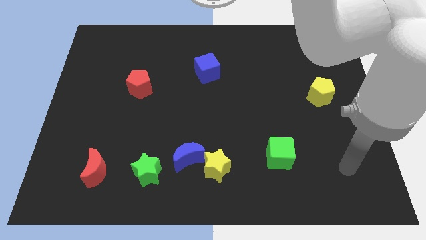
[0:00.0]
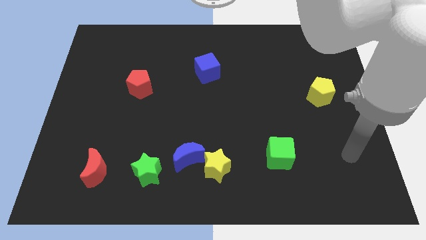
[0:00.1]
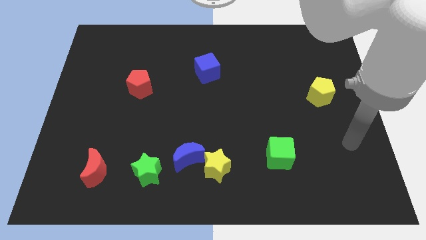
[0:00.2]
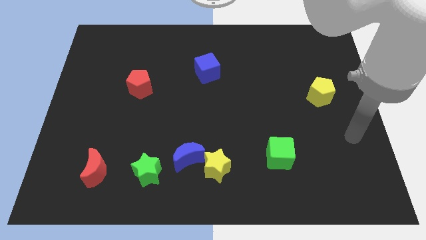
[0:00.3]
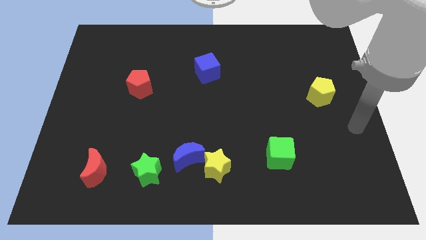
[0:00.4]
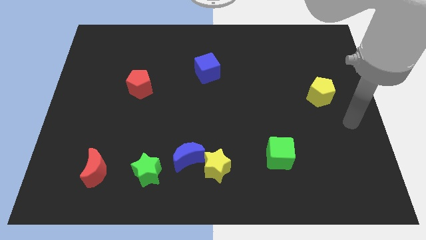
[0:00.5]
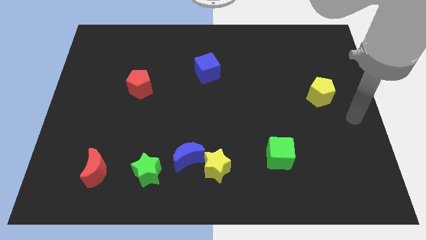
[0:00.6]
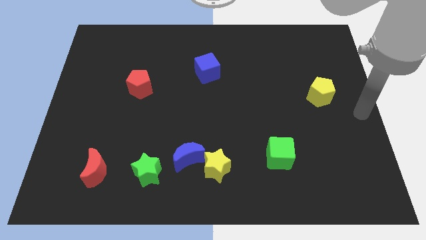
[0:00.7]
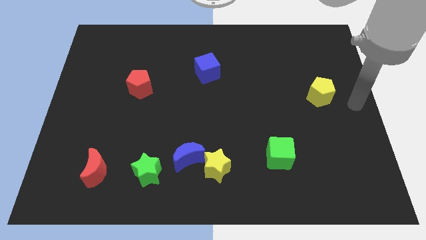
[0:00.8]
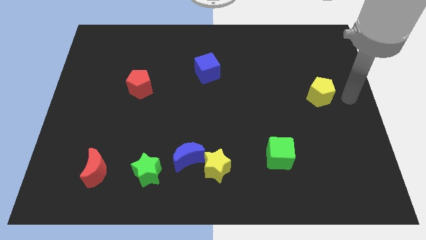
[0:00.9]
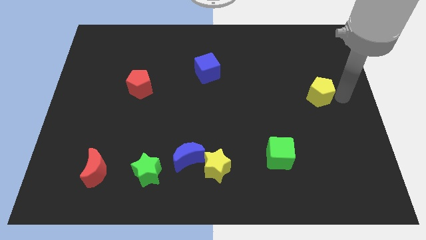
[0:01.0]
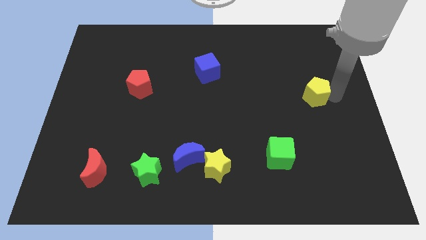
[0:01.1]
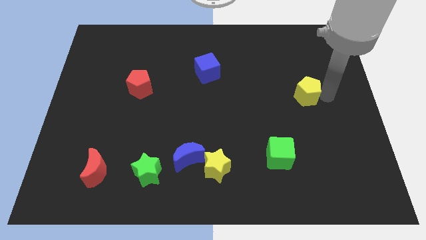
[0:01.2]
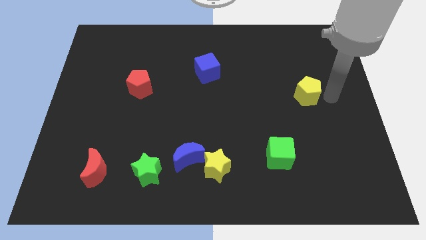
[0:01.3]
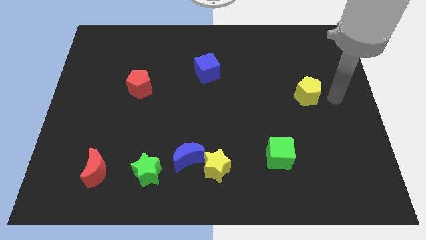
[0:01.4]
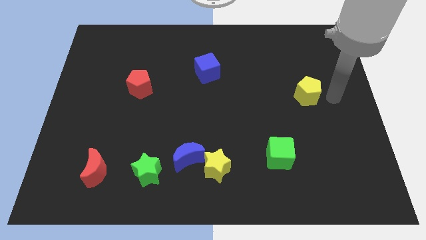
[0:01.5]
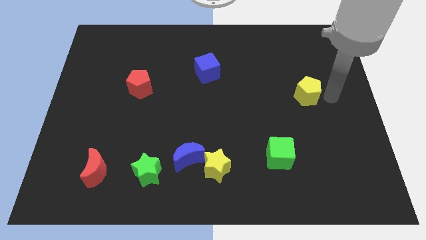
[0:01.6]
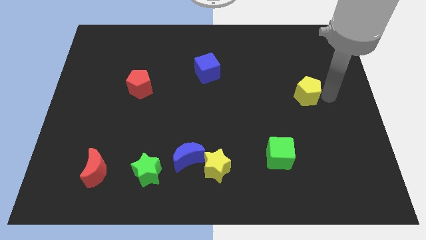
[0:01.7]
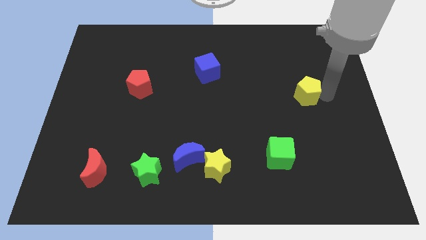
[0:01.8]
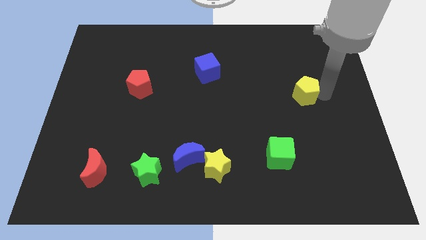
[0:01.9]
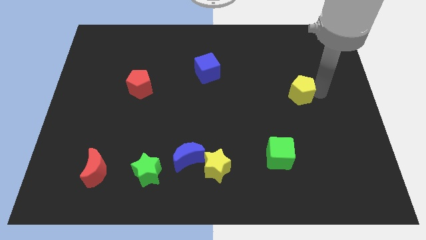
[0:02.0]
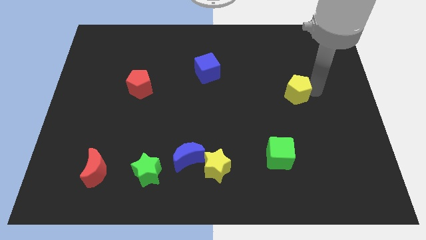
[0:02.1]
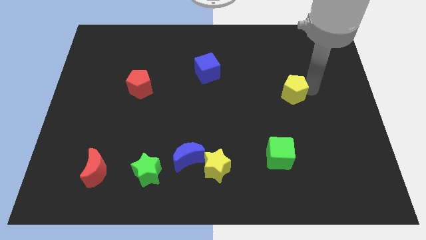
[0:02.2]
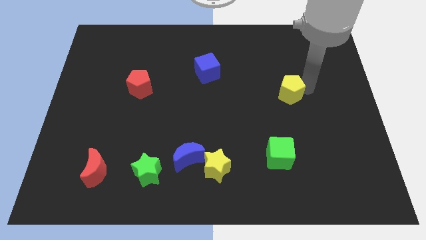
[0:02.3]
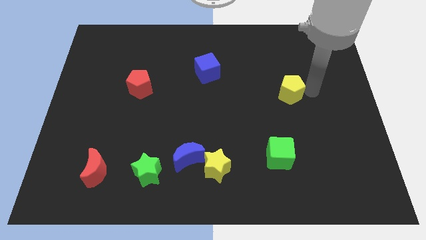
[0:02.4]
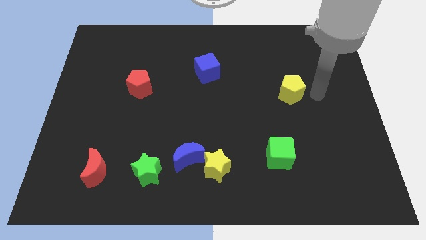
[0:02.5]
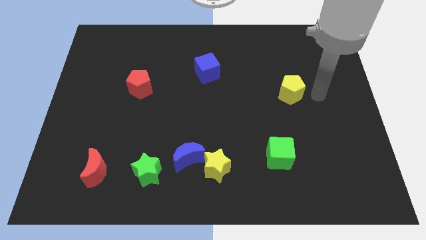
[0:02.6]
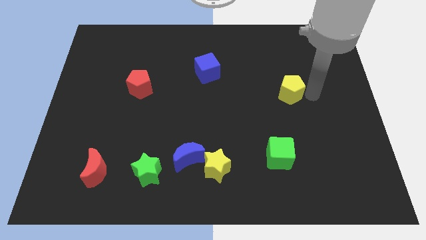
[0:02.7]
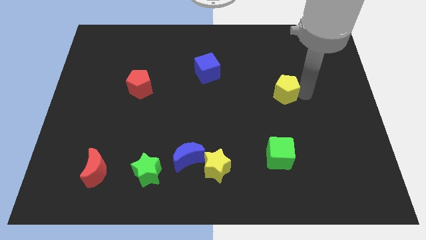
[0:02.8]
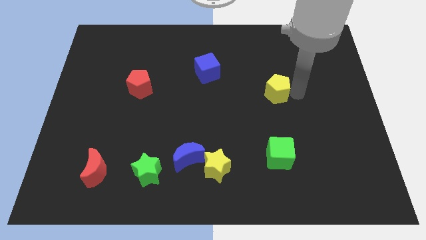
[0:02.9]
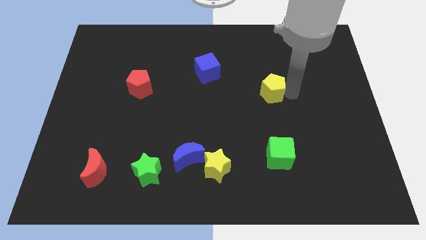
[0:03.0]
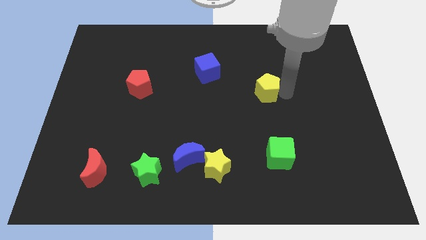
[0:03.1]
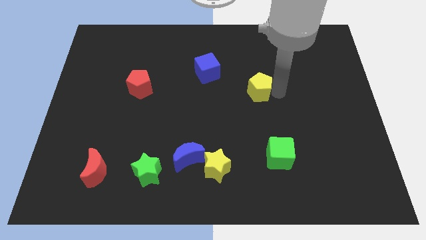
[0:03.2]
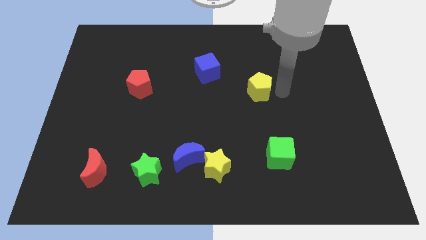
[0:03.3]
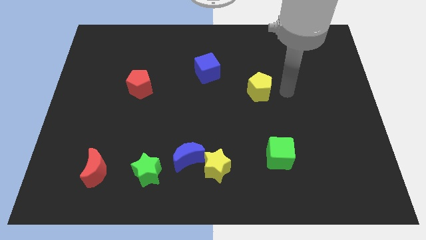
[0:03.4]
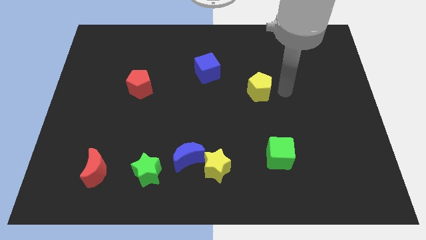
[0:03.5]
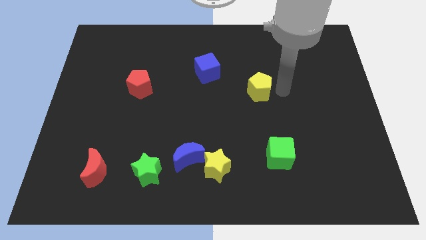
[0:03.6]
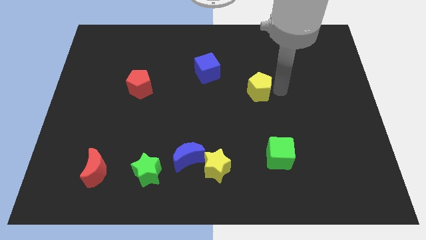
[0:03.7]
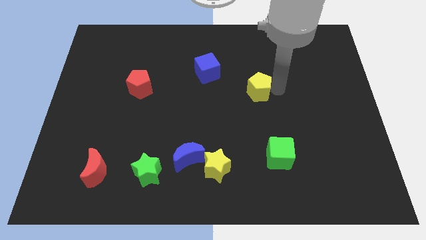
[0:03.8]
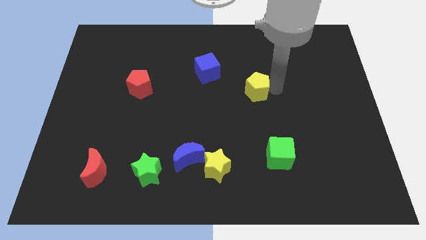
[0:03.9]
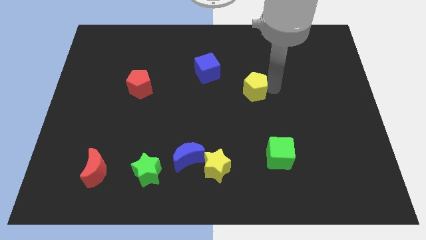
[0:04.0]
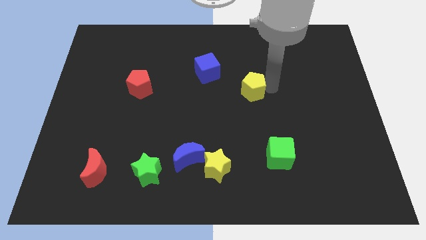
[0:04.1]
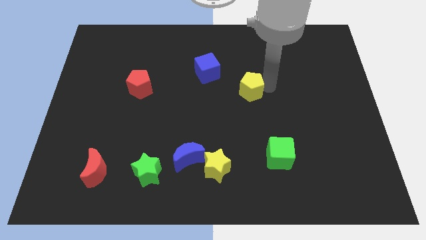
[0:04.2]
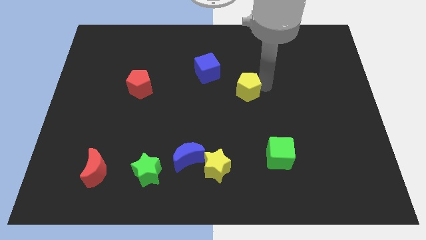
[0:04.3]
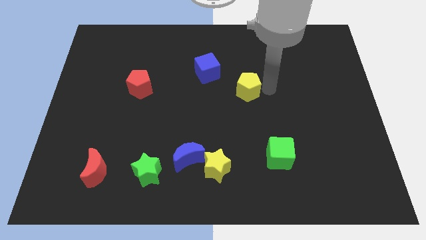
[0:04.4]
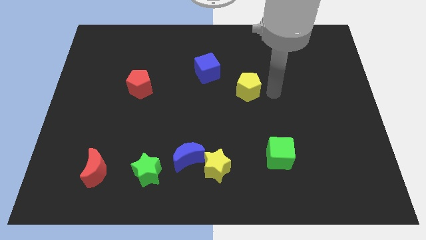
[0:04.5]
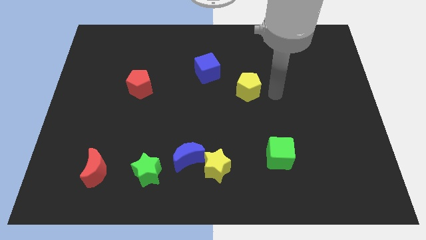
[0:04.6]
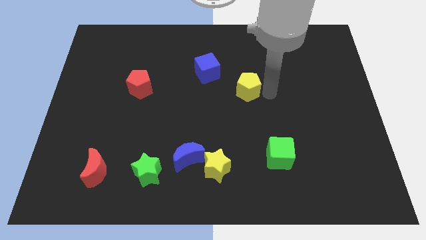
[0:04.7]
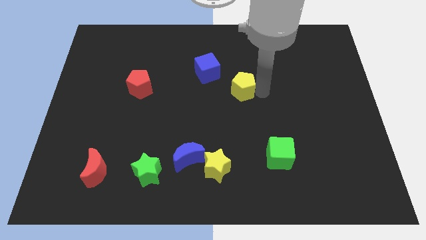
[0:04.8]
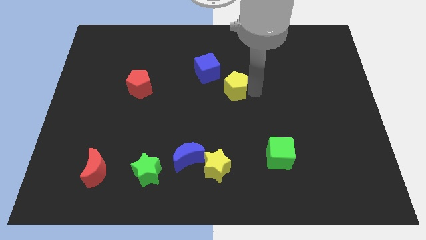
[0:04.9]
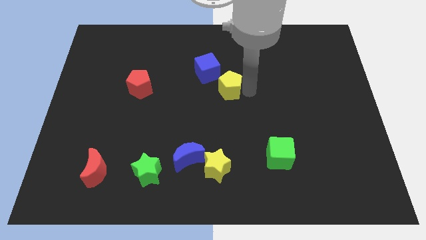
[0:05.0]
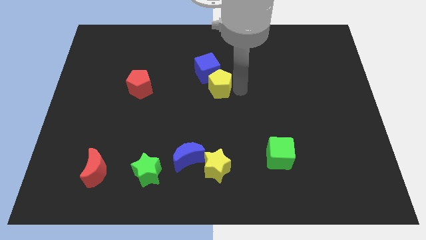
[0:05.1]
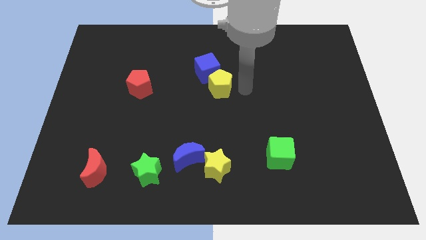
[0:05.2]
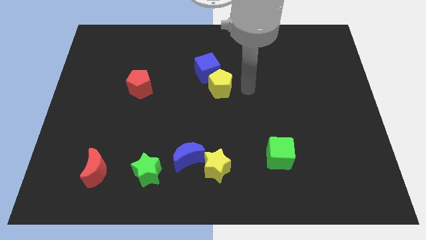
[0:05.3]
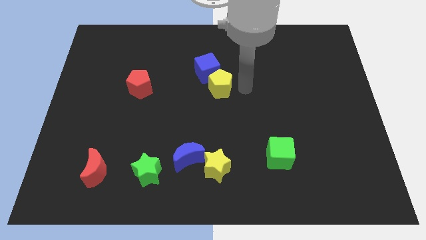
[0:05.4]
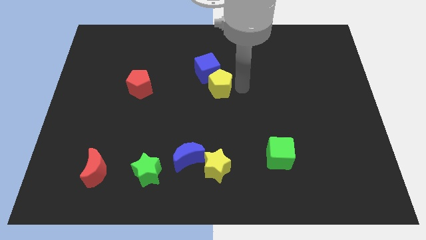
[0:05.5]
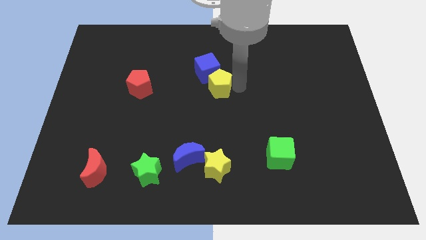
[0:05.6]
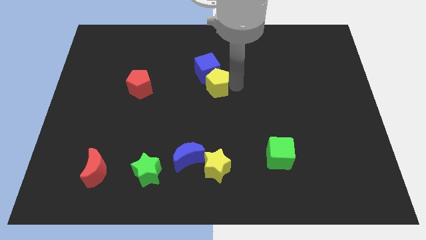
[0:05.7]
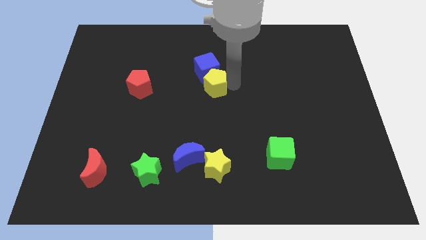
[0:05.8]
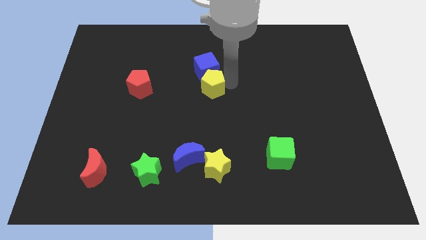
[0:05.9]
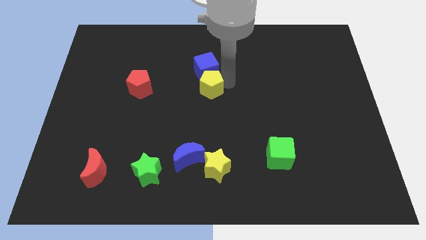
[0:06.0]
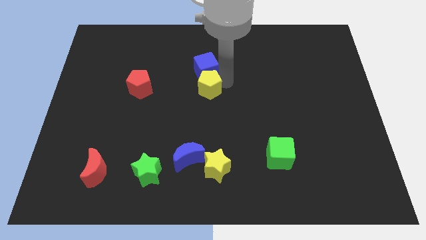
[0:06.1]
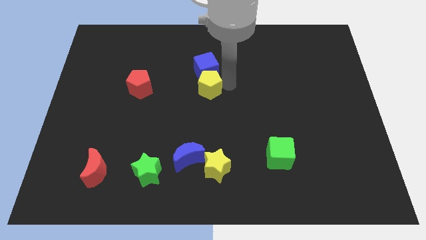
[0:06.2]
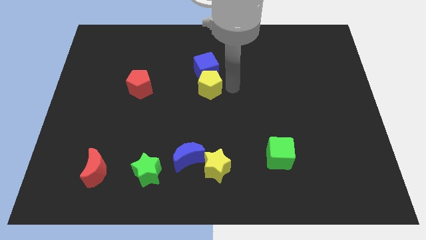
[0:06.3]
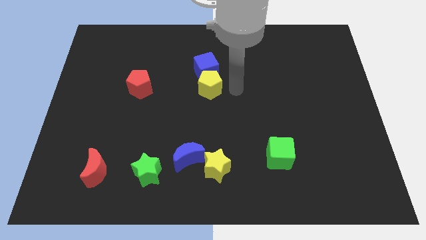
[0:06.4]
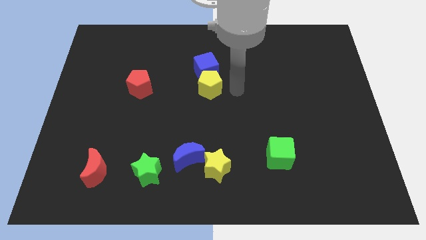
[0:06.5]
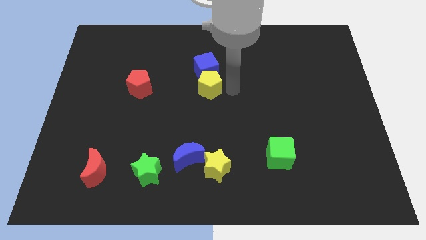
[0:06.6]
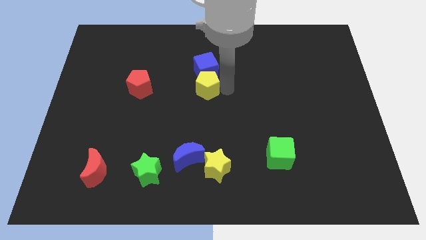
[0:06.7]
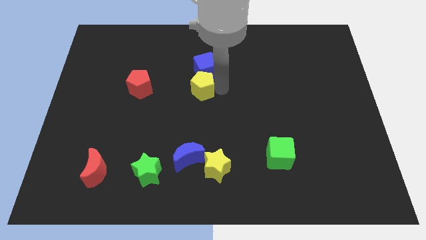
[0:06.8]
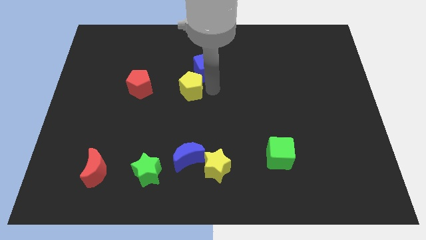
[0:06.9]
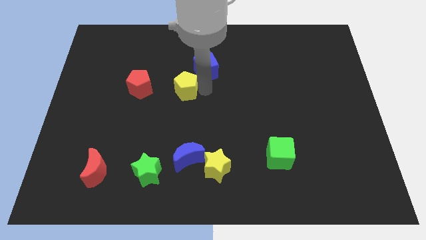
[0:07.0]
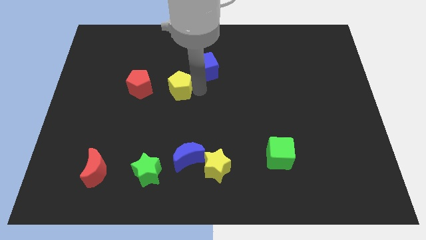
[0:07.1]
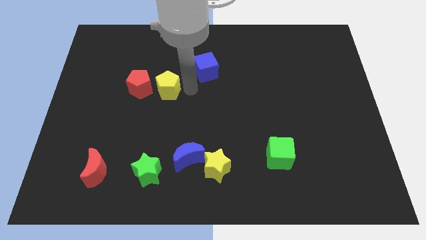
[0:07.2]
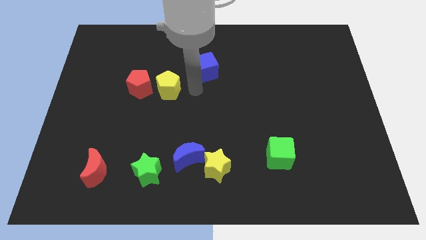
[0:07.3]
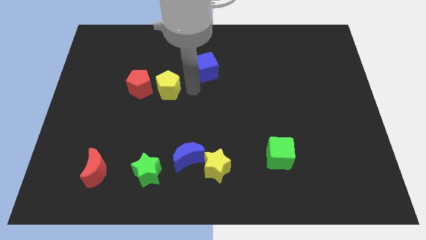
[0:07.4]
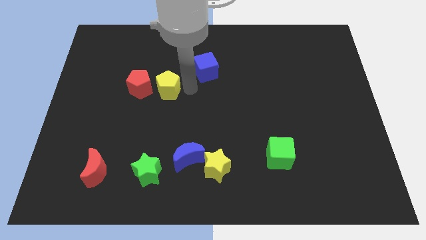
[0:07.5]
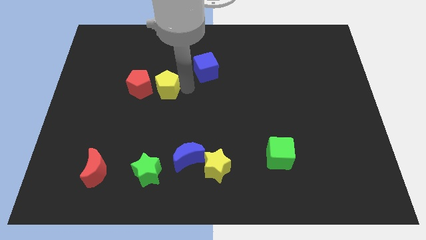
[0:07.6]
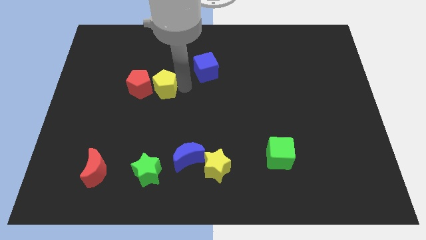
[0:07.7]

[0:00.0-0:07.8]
push the yellow pentagon close to the red pentagon
